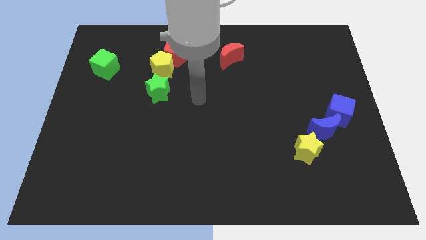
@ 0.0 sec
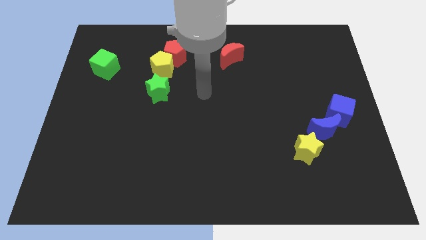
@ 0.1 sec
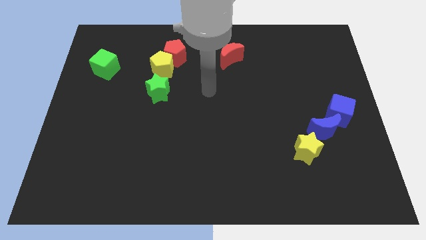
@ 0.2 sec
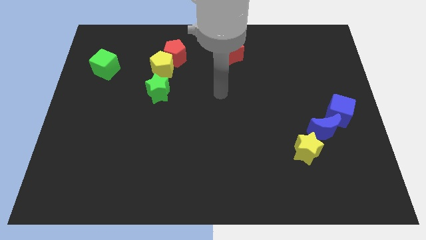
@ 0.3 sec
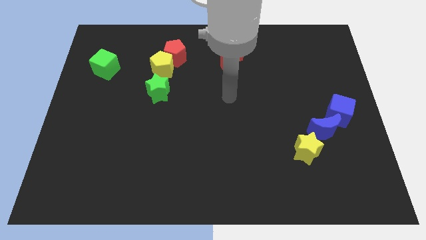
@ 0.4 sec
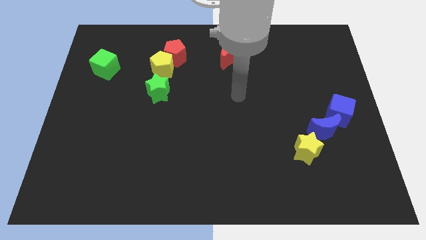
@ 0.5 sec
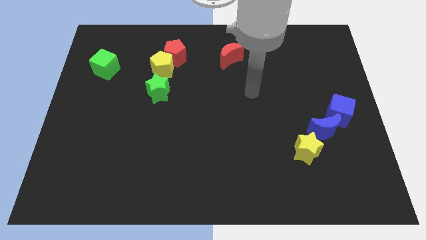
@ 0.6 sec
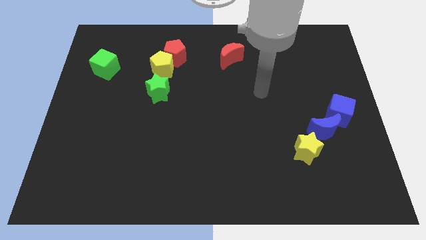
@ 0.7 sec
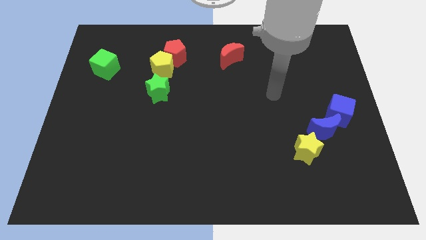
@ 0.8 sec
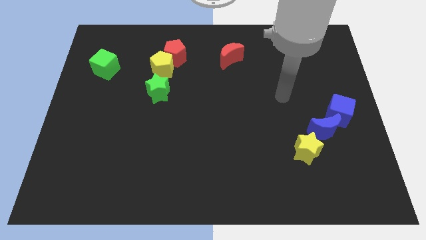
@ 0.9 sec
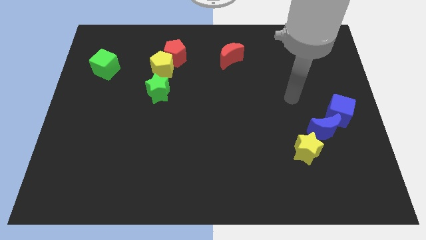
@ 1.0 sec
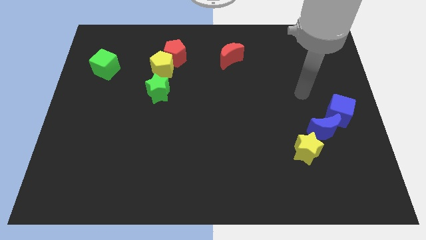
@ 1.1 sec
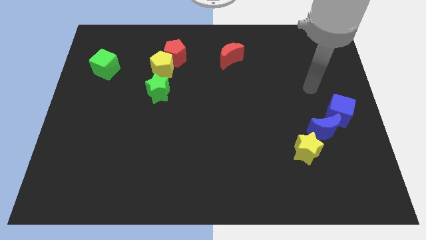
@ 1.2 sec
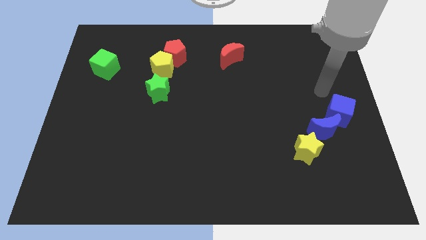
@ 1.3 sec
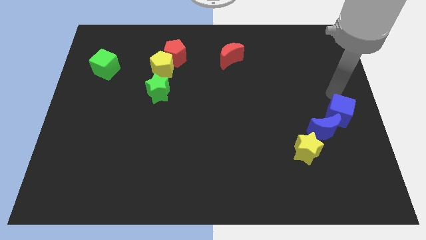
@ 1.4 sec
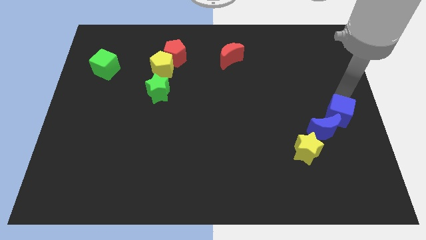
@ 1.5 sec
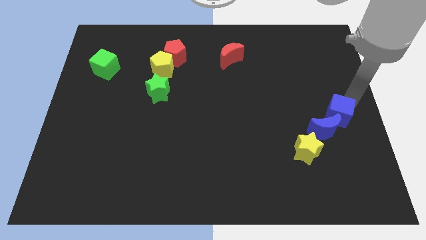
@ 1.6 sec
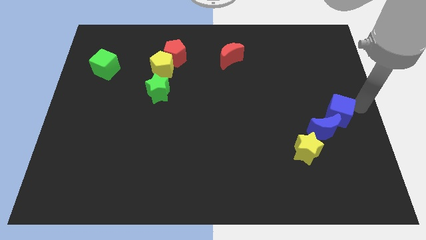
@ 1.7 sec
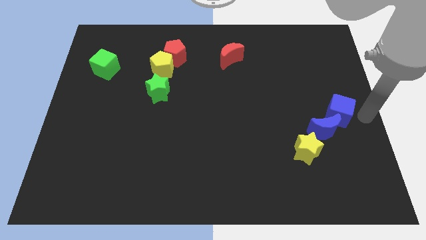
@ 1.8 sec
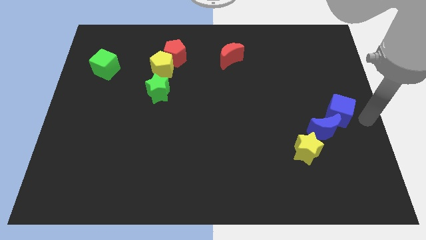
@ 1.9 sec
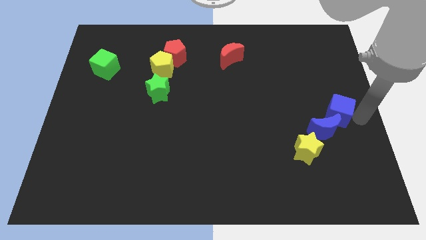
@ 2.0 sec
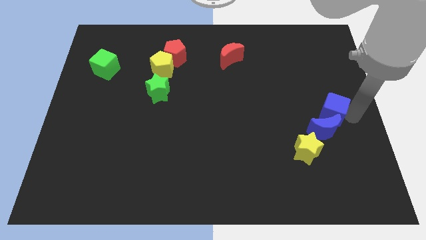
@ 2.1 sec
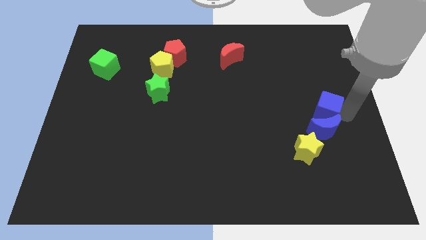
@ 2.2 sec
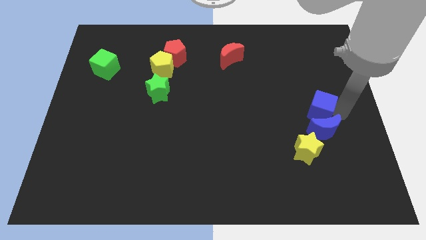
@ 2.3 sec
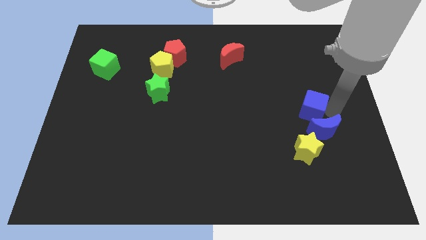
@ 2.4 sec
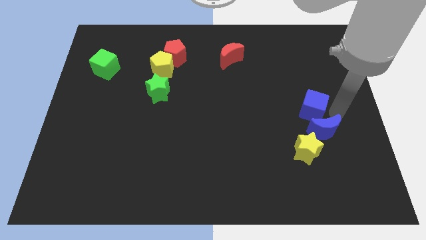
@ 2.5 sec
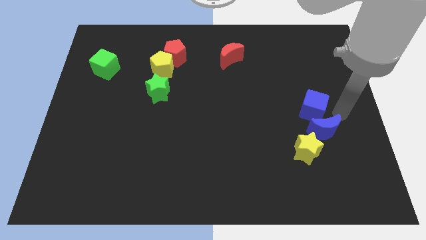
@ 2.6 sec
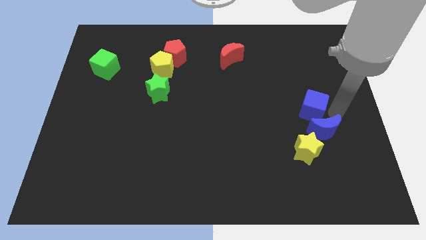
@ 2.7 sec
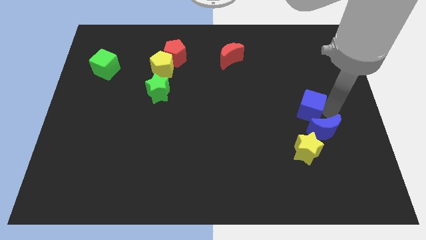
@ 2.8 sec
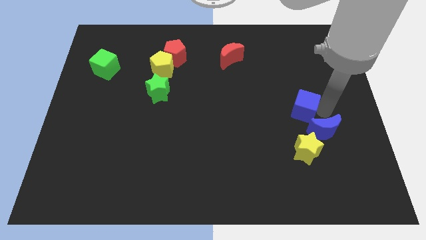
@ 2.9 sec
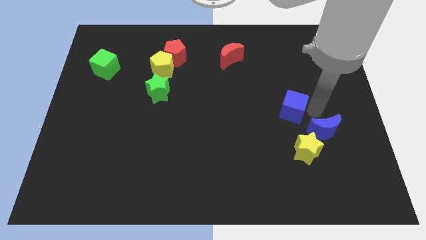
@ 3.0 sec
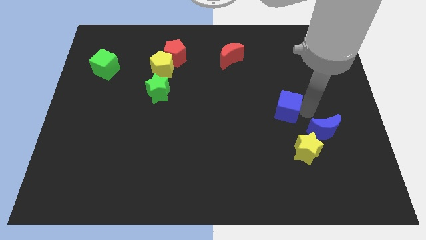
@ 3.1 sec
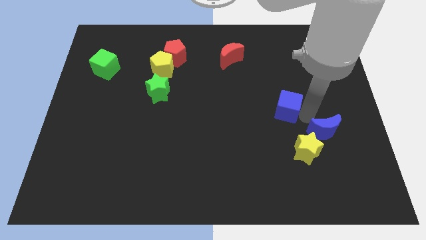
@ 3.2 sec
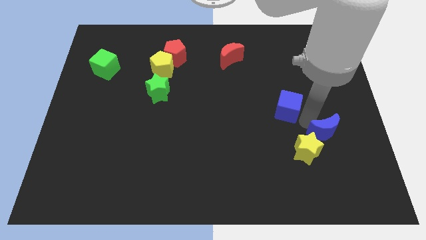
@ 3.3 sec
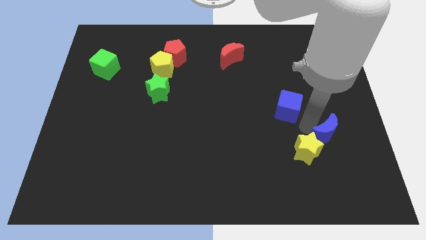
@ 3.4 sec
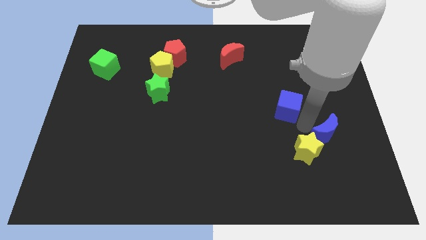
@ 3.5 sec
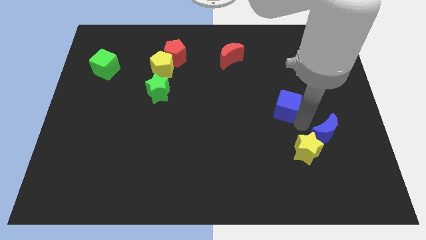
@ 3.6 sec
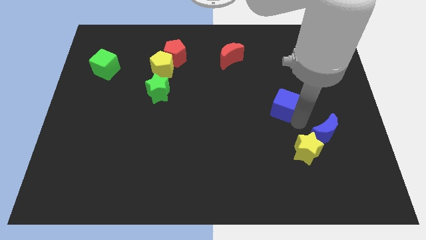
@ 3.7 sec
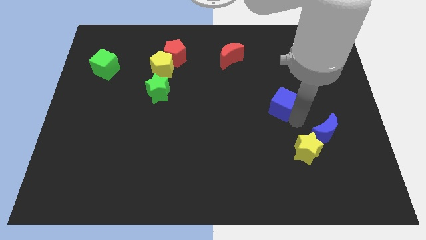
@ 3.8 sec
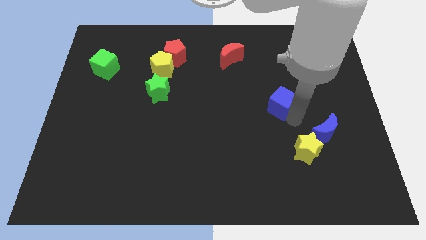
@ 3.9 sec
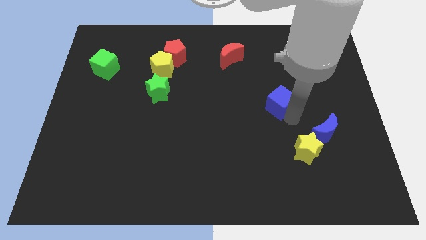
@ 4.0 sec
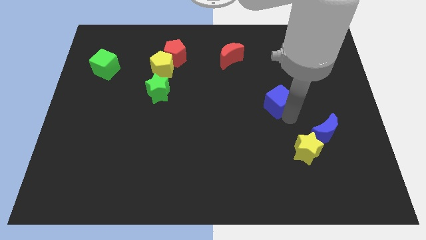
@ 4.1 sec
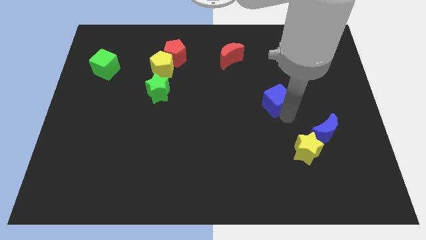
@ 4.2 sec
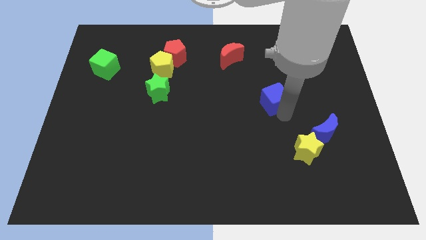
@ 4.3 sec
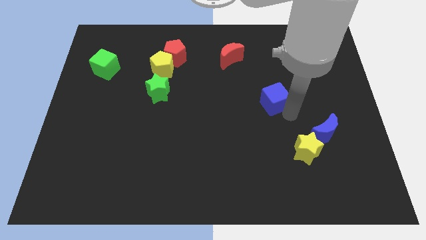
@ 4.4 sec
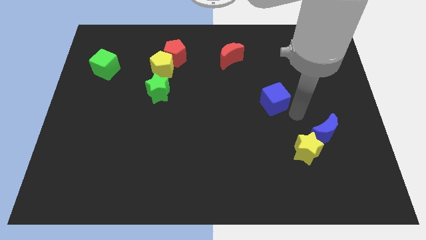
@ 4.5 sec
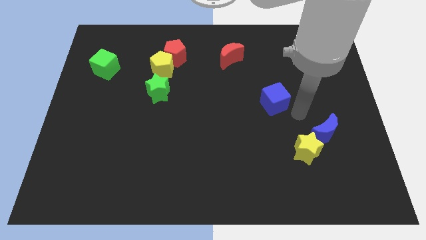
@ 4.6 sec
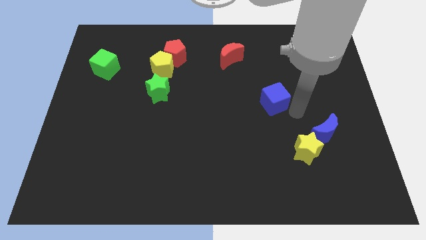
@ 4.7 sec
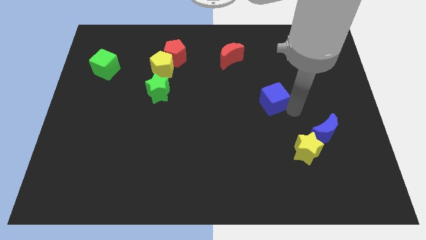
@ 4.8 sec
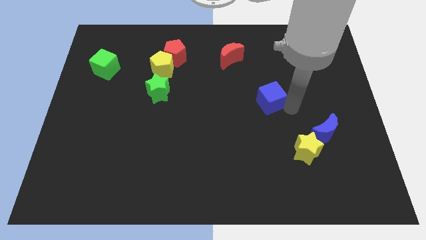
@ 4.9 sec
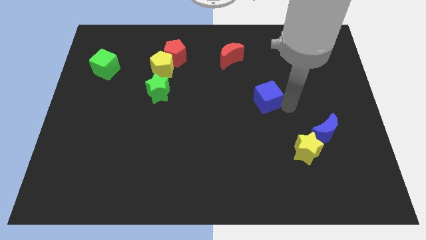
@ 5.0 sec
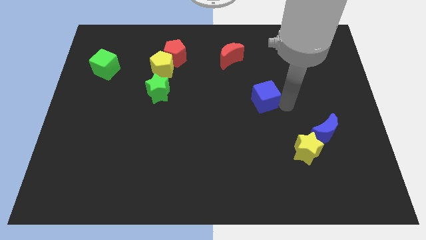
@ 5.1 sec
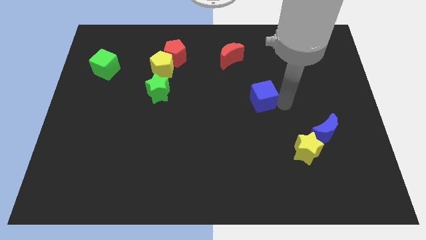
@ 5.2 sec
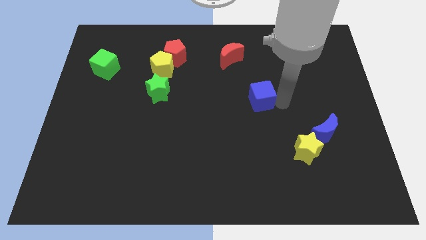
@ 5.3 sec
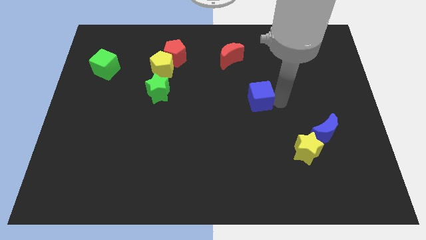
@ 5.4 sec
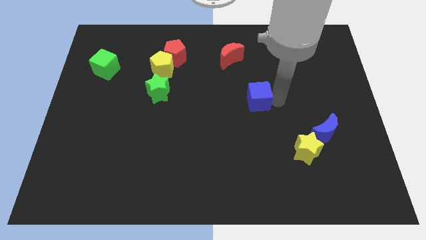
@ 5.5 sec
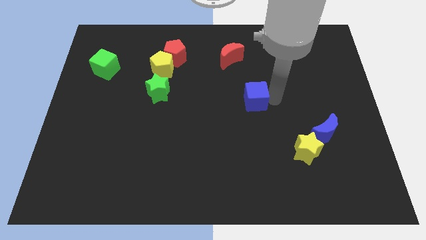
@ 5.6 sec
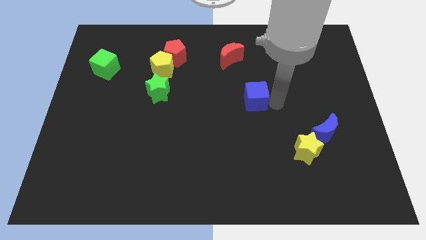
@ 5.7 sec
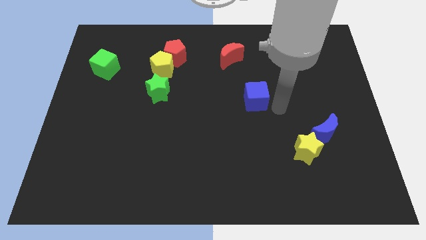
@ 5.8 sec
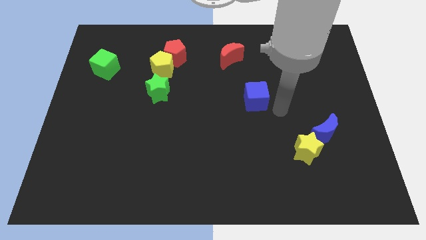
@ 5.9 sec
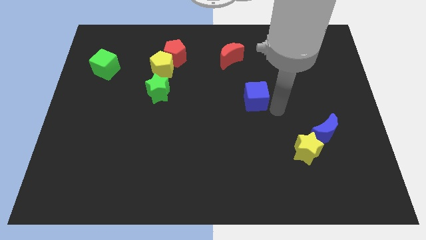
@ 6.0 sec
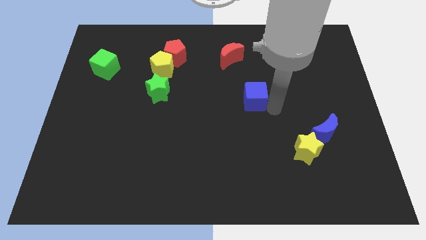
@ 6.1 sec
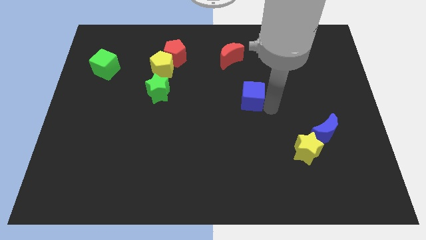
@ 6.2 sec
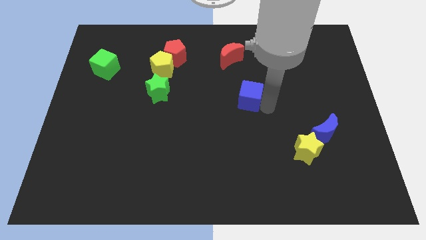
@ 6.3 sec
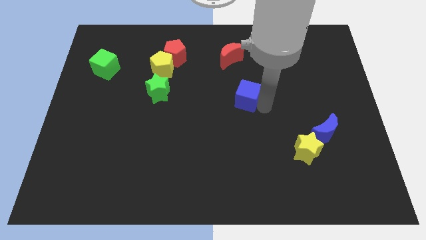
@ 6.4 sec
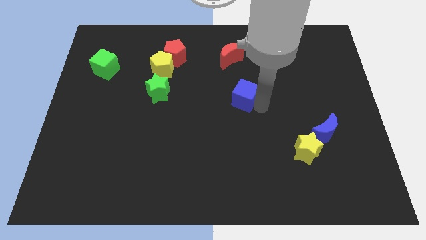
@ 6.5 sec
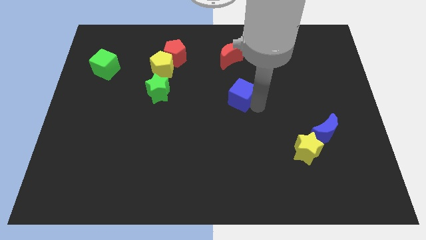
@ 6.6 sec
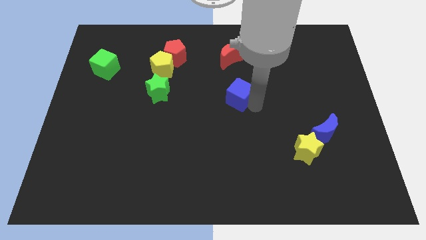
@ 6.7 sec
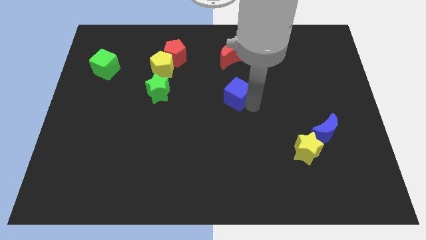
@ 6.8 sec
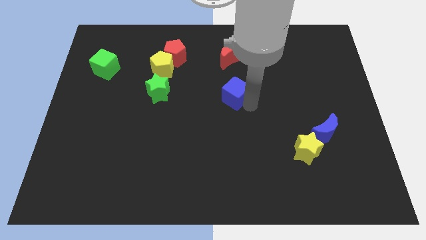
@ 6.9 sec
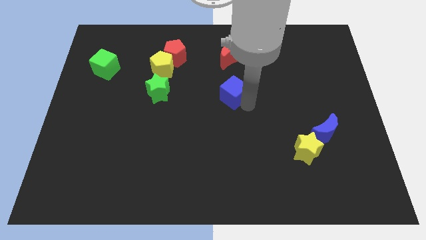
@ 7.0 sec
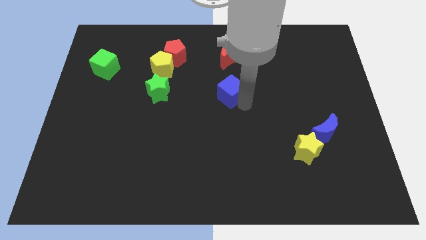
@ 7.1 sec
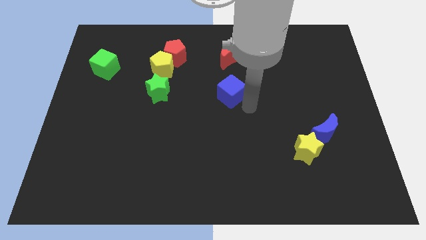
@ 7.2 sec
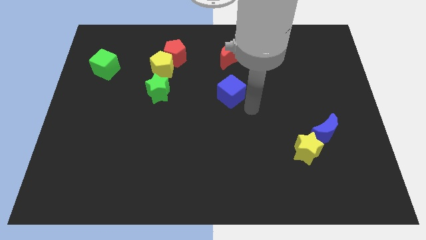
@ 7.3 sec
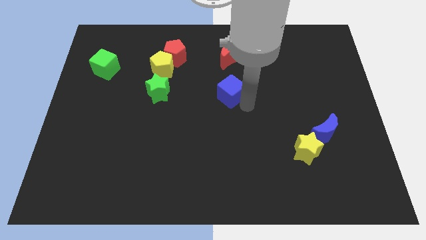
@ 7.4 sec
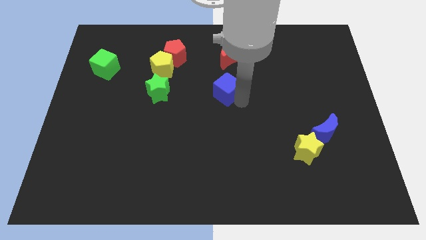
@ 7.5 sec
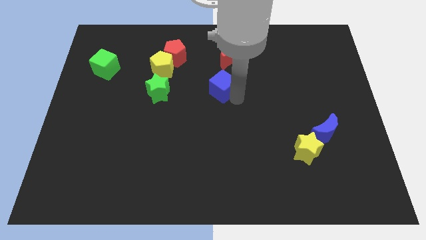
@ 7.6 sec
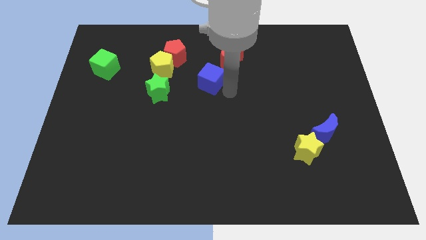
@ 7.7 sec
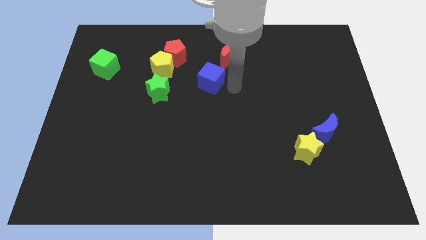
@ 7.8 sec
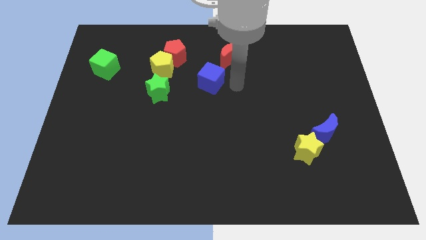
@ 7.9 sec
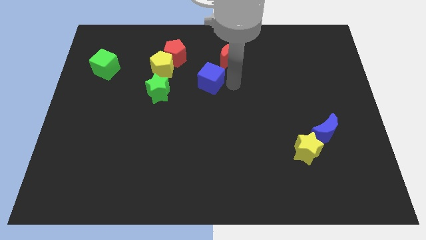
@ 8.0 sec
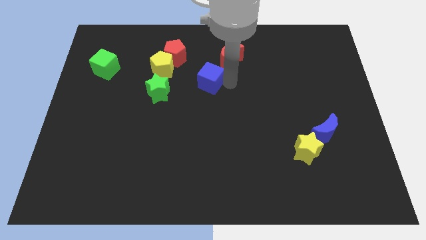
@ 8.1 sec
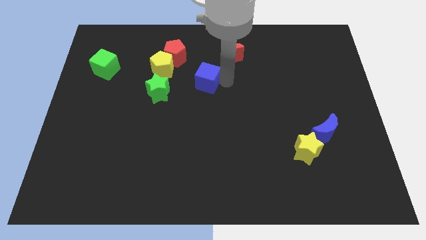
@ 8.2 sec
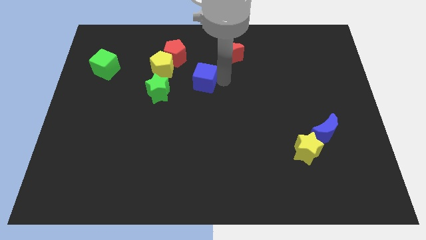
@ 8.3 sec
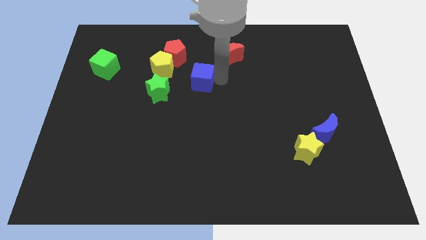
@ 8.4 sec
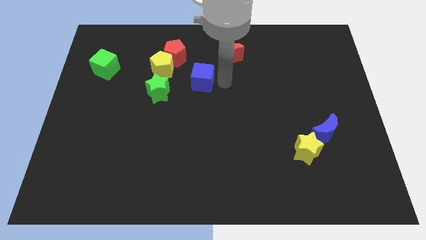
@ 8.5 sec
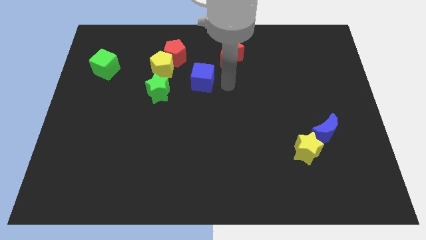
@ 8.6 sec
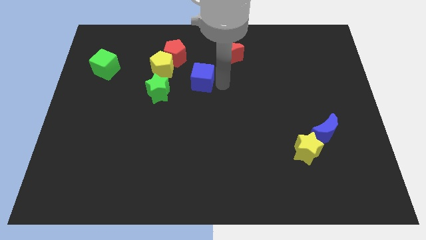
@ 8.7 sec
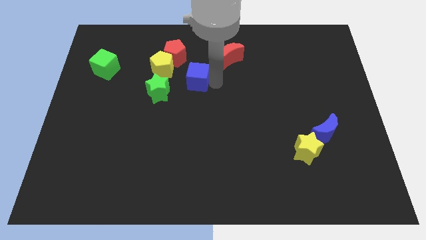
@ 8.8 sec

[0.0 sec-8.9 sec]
push the blue cube diagonally up and to the right of the green star
